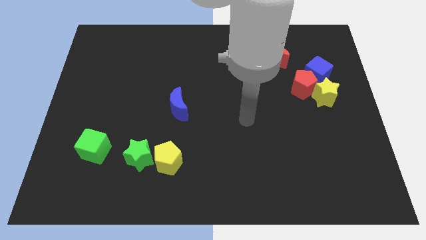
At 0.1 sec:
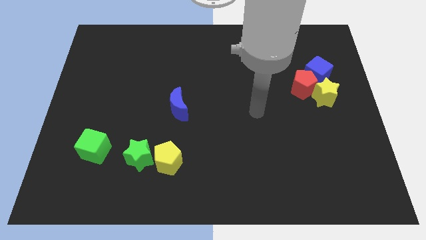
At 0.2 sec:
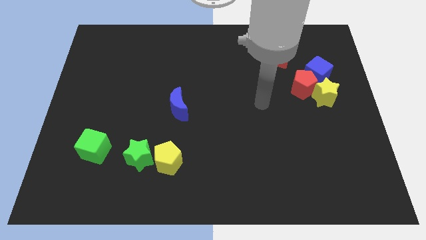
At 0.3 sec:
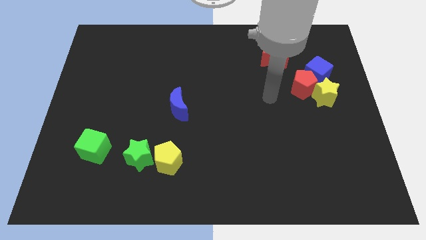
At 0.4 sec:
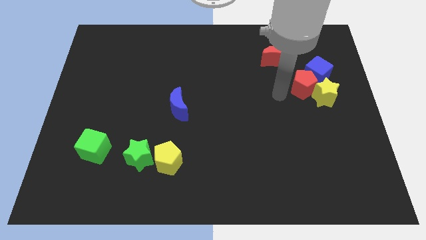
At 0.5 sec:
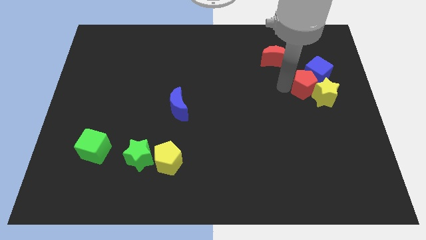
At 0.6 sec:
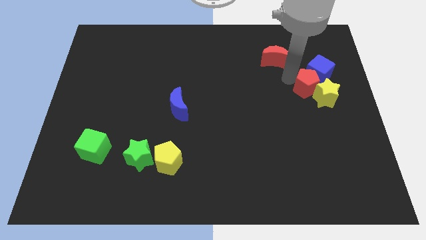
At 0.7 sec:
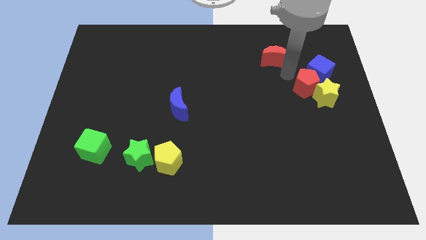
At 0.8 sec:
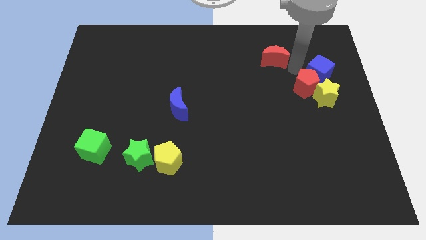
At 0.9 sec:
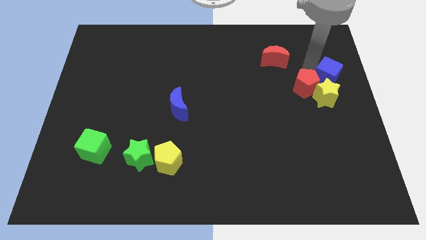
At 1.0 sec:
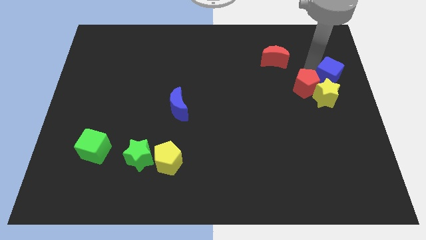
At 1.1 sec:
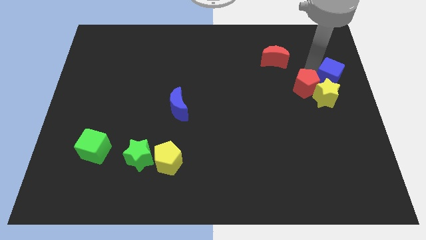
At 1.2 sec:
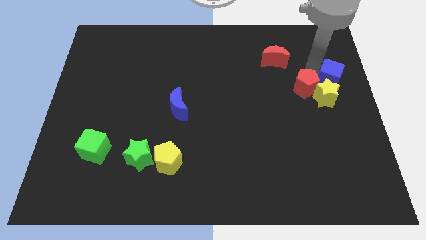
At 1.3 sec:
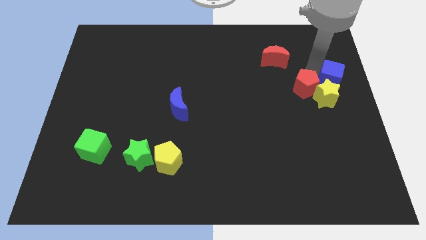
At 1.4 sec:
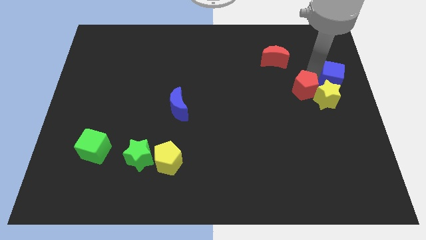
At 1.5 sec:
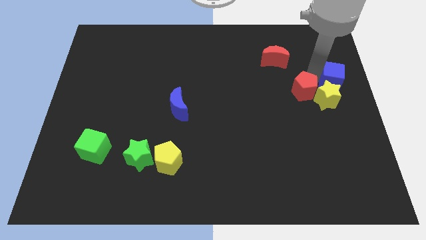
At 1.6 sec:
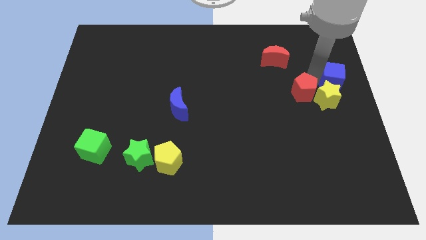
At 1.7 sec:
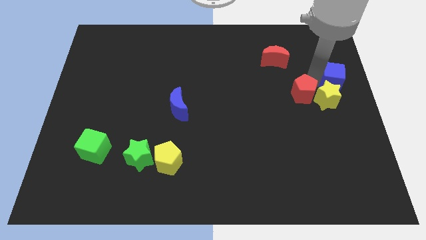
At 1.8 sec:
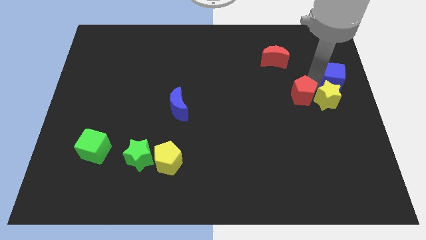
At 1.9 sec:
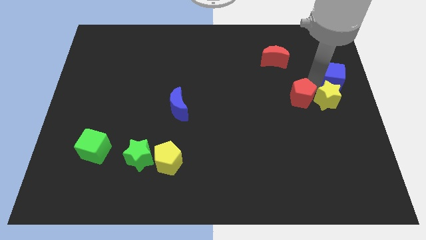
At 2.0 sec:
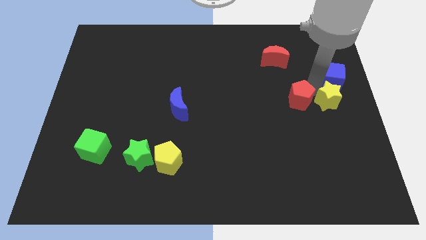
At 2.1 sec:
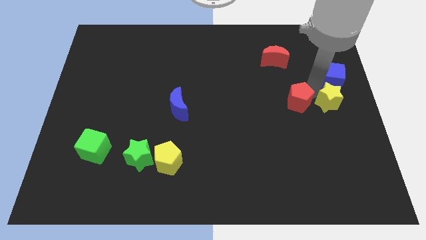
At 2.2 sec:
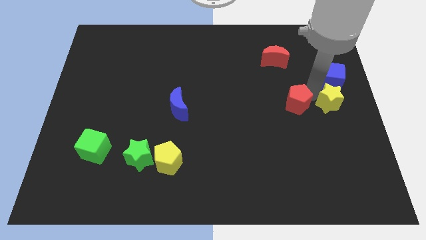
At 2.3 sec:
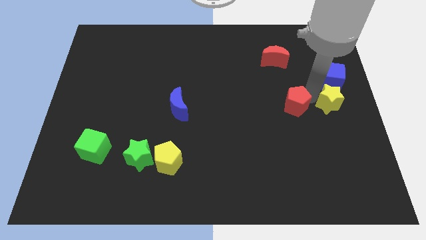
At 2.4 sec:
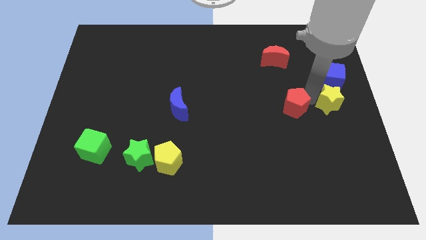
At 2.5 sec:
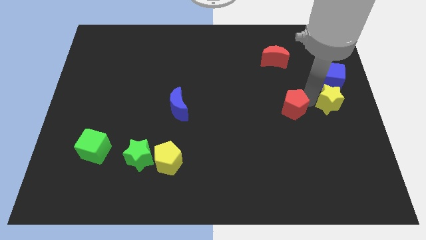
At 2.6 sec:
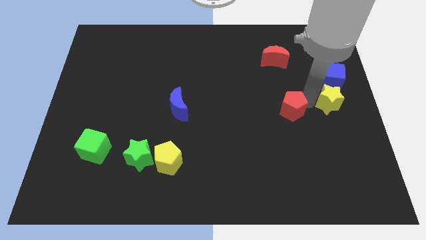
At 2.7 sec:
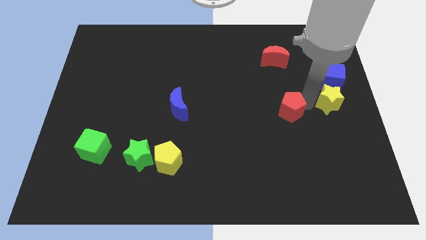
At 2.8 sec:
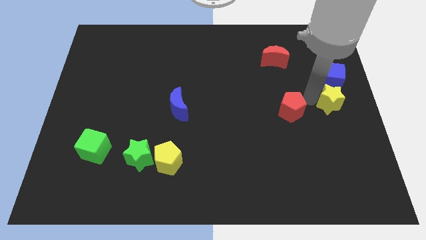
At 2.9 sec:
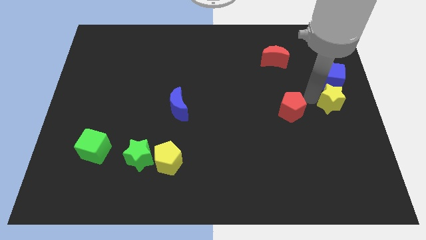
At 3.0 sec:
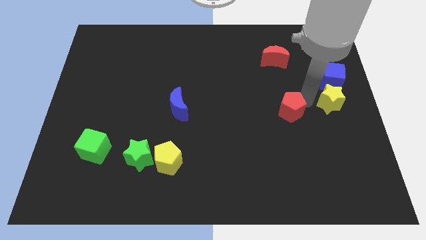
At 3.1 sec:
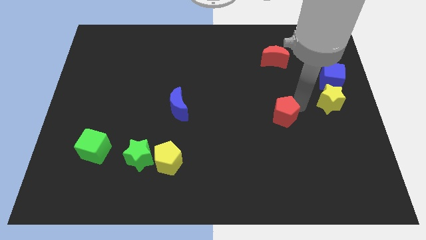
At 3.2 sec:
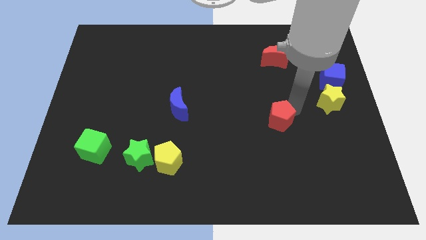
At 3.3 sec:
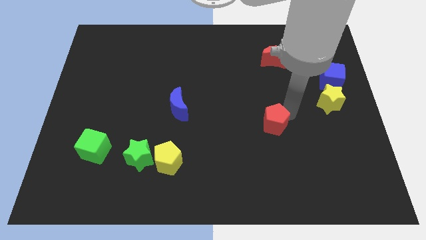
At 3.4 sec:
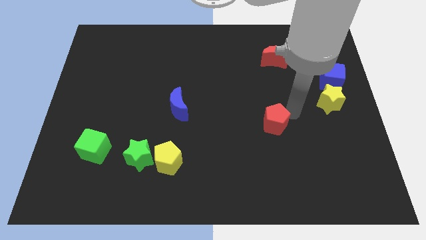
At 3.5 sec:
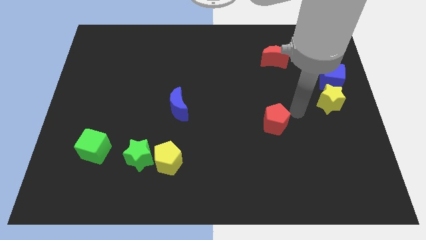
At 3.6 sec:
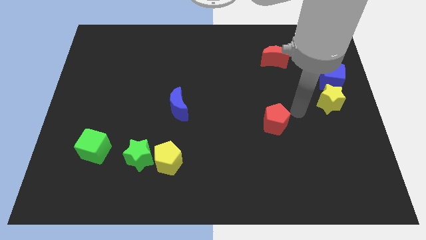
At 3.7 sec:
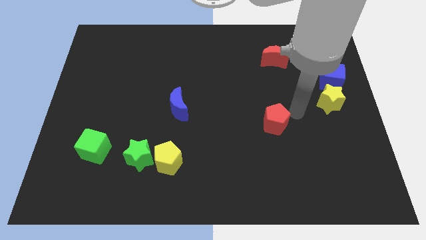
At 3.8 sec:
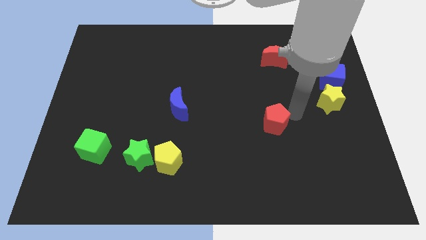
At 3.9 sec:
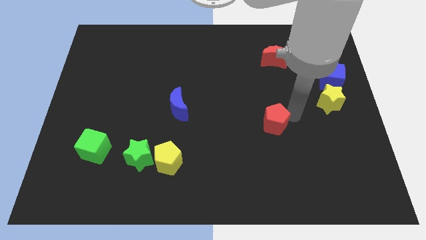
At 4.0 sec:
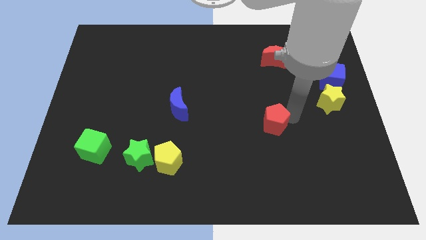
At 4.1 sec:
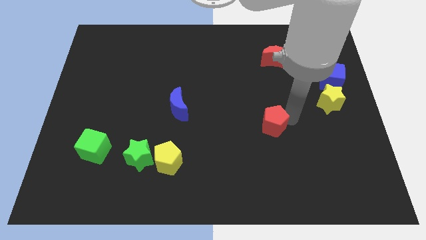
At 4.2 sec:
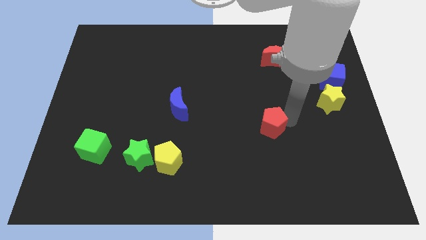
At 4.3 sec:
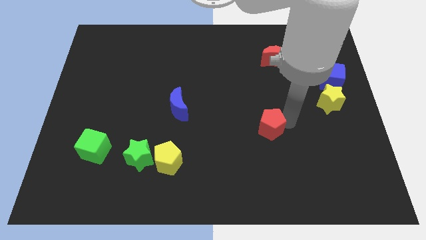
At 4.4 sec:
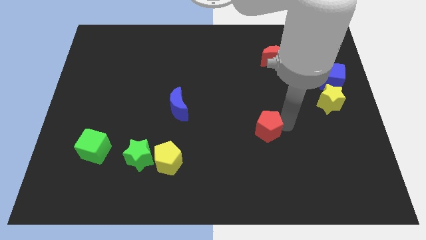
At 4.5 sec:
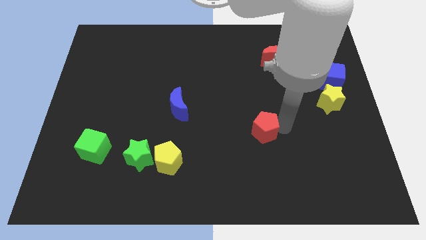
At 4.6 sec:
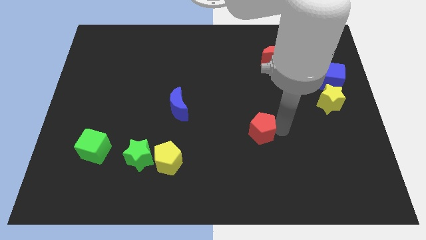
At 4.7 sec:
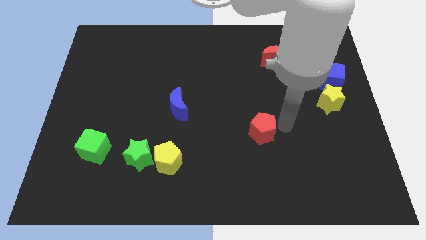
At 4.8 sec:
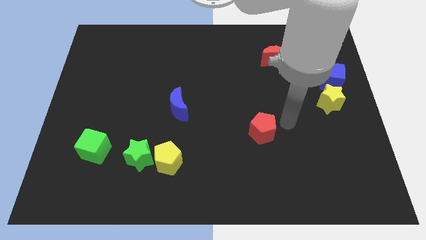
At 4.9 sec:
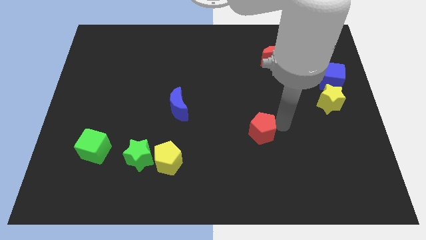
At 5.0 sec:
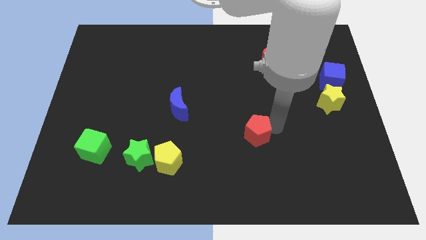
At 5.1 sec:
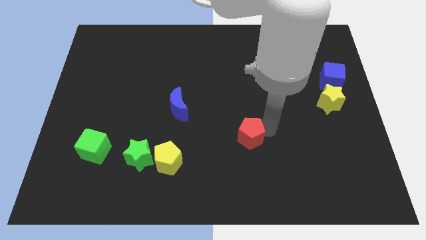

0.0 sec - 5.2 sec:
push the red pentagon down and to the left

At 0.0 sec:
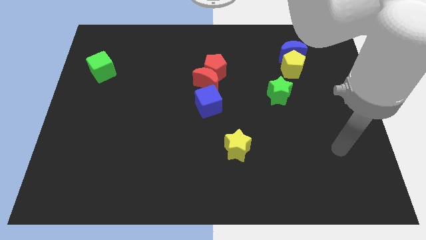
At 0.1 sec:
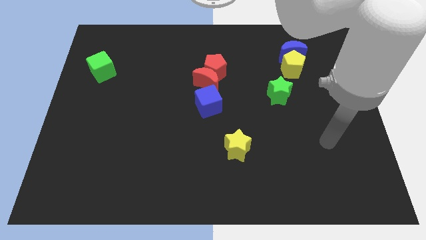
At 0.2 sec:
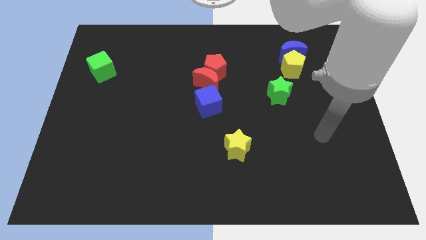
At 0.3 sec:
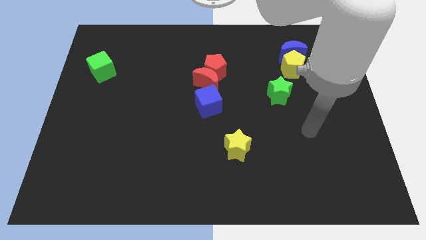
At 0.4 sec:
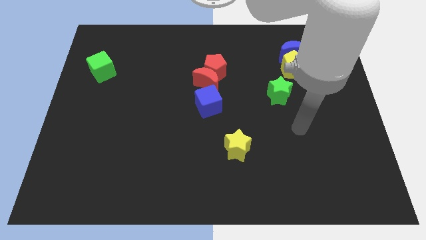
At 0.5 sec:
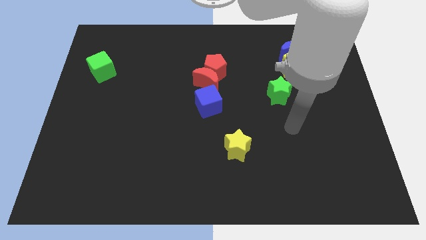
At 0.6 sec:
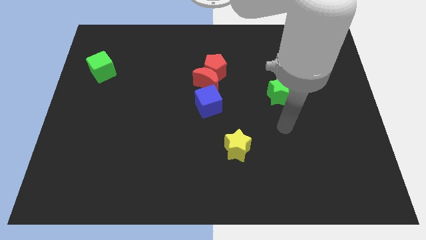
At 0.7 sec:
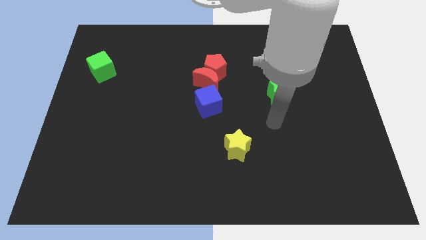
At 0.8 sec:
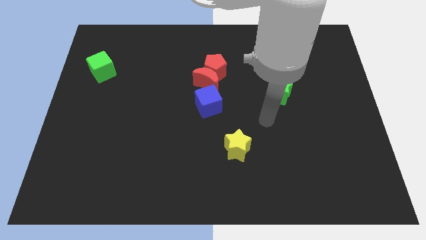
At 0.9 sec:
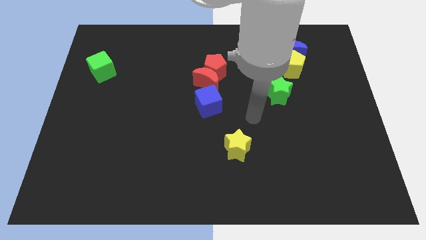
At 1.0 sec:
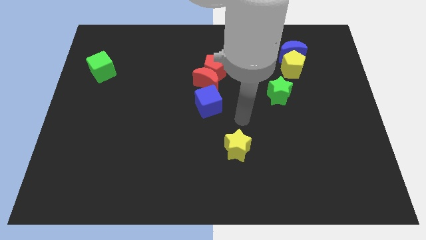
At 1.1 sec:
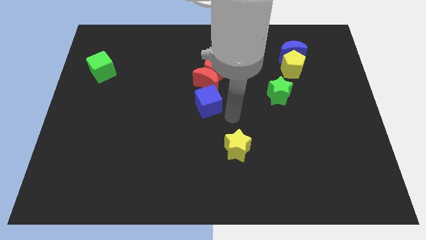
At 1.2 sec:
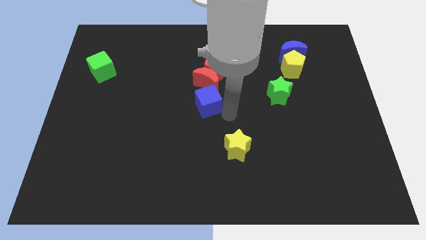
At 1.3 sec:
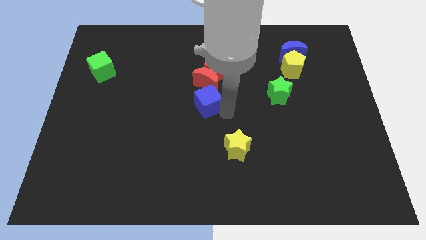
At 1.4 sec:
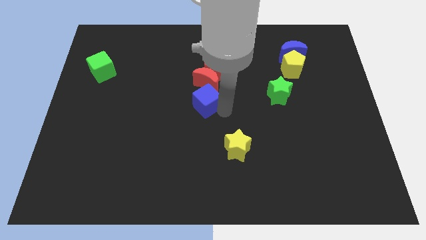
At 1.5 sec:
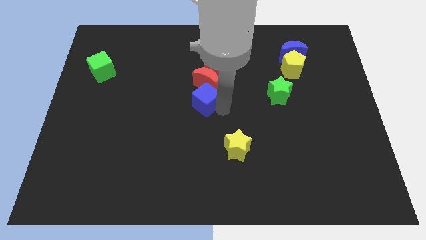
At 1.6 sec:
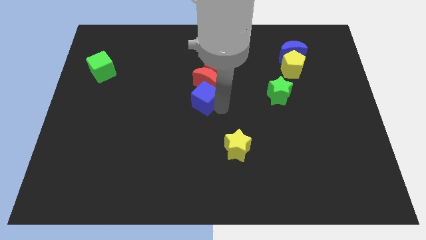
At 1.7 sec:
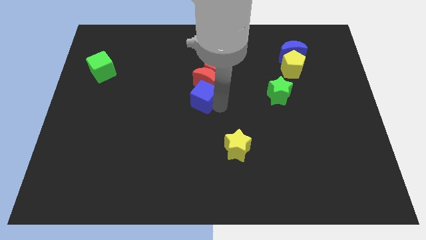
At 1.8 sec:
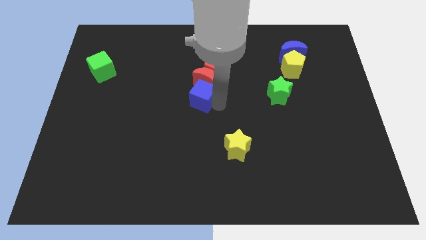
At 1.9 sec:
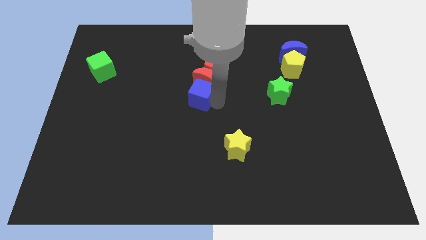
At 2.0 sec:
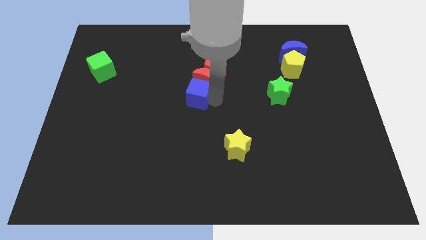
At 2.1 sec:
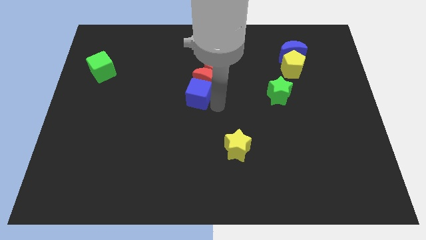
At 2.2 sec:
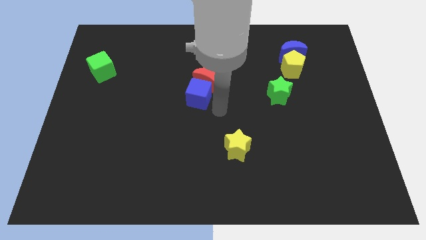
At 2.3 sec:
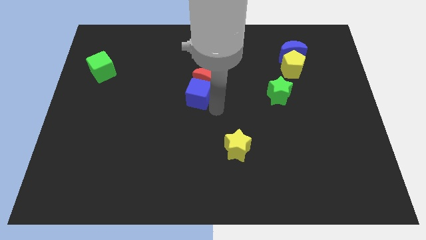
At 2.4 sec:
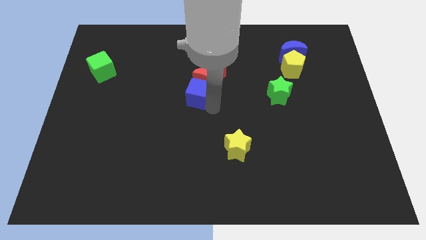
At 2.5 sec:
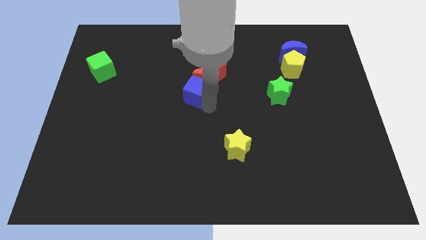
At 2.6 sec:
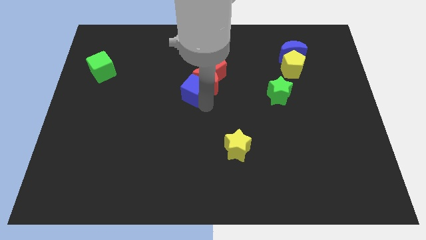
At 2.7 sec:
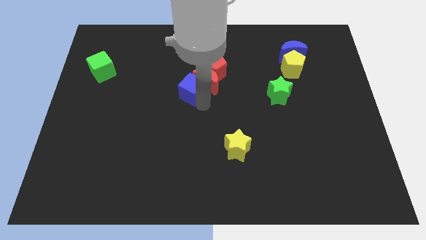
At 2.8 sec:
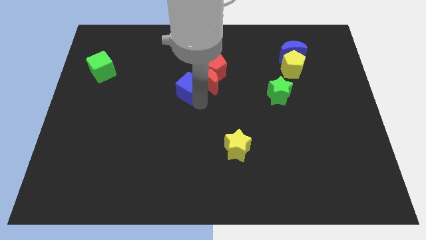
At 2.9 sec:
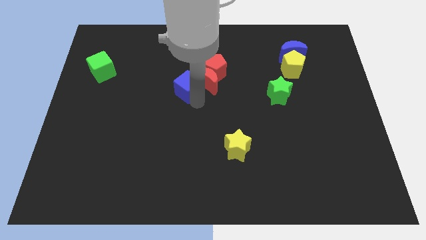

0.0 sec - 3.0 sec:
slightly slide the blue cube upwards and to the left

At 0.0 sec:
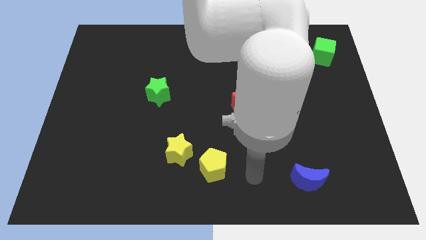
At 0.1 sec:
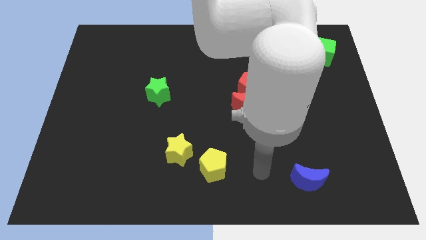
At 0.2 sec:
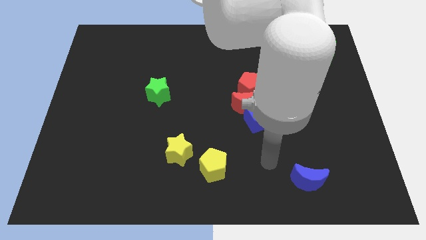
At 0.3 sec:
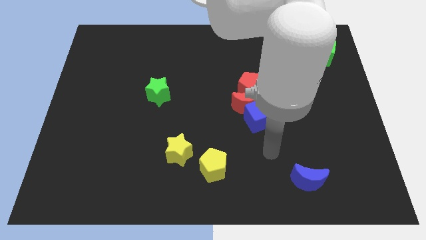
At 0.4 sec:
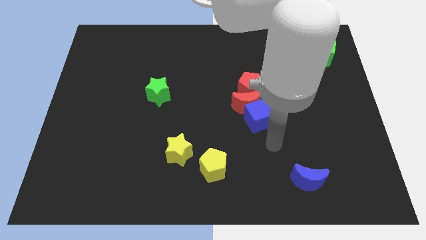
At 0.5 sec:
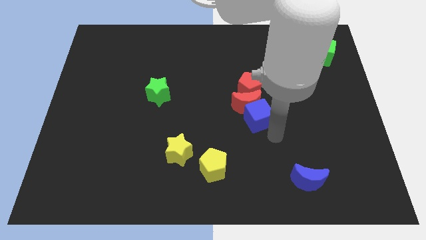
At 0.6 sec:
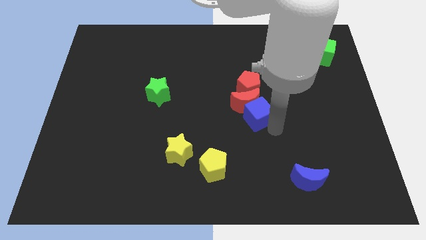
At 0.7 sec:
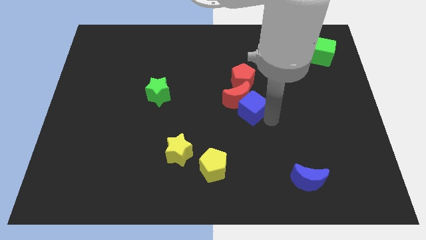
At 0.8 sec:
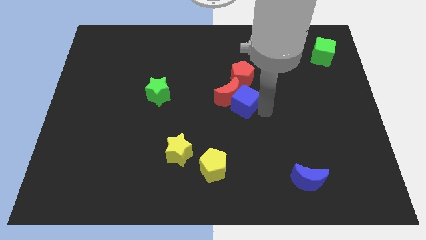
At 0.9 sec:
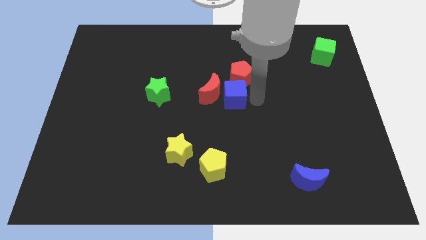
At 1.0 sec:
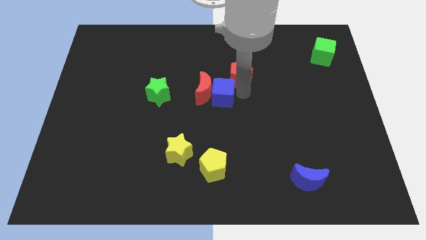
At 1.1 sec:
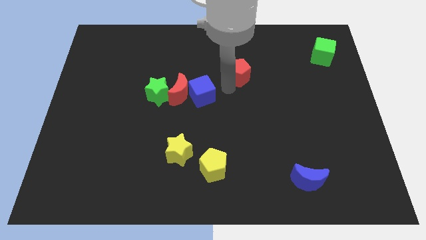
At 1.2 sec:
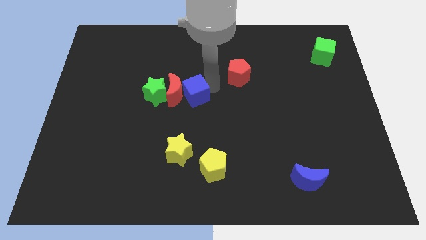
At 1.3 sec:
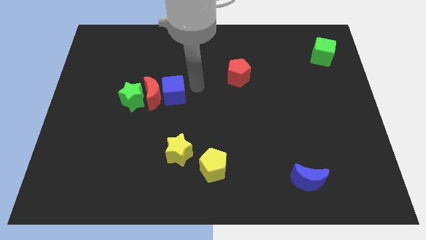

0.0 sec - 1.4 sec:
move the red moon to the left
